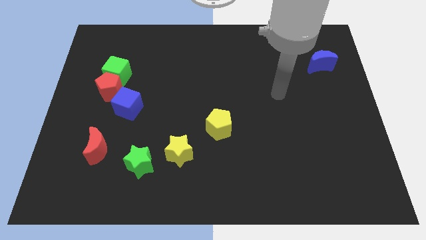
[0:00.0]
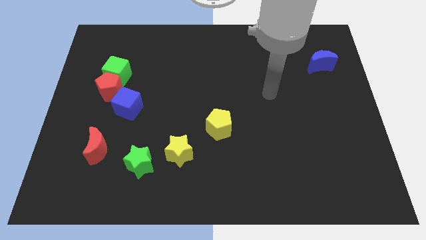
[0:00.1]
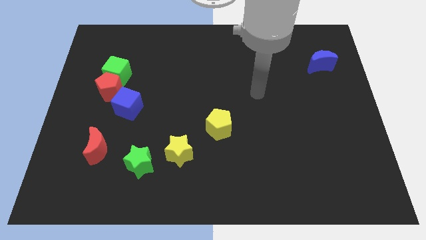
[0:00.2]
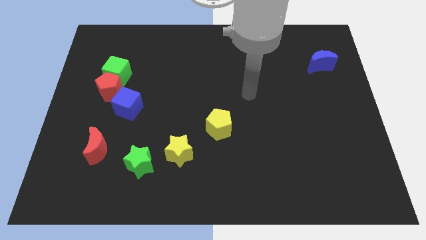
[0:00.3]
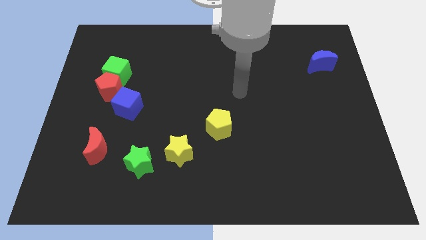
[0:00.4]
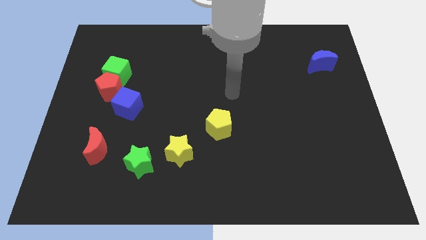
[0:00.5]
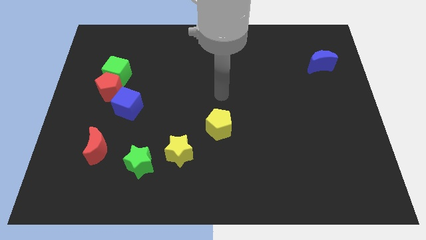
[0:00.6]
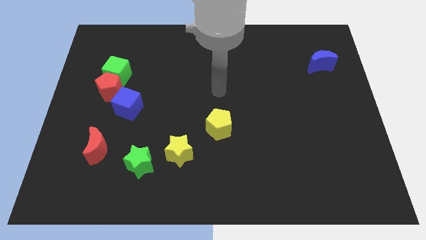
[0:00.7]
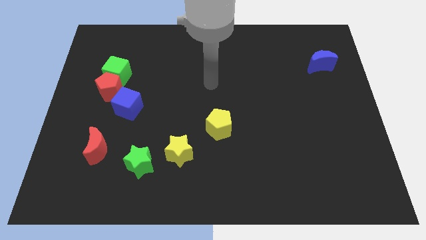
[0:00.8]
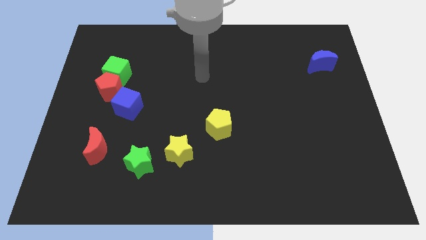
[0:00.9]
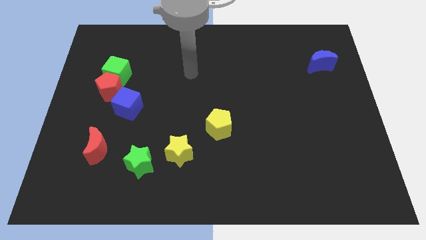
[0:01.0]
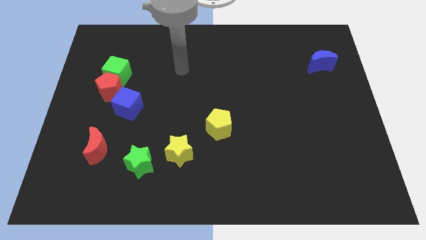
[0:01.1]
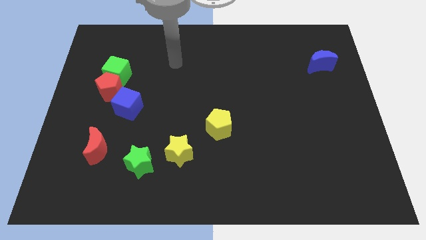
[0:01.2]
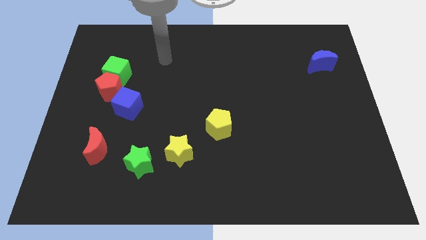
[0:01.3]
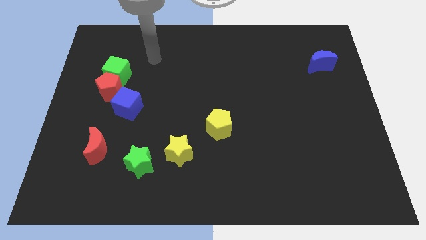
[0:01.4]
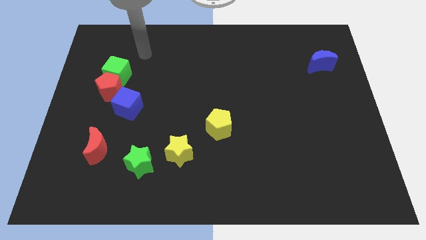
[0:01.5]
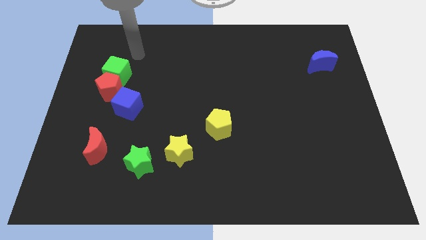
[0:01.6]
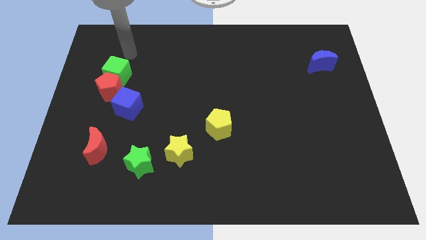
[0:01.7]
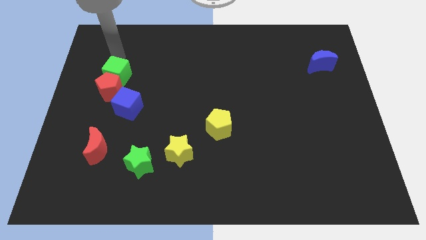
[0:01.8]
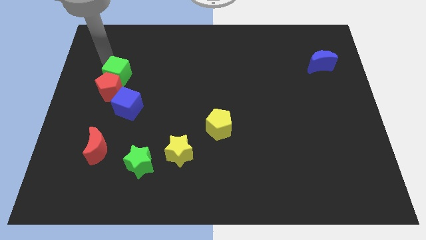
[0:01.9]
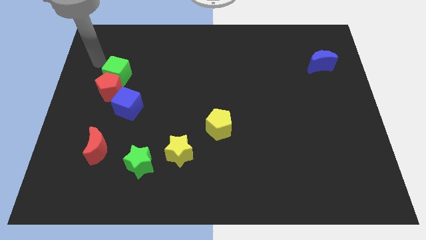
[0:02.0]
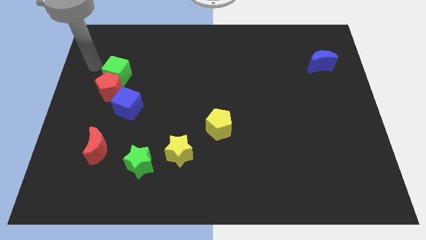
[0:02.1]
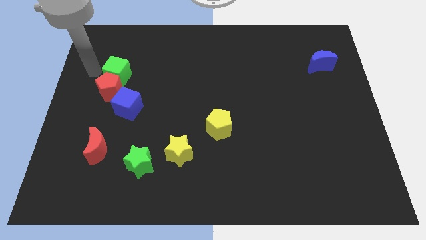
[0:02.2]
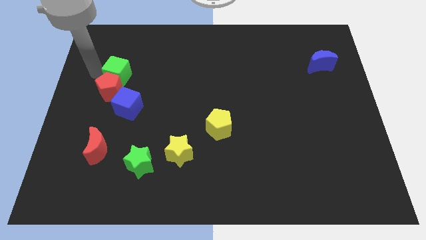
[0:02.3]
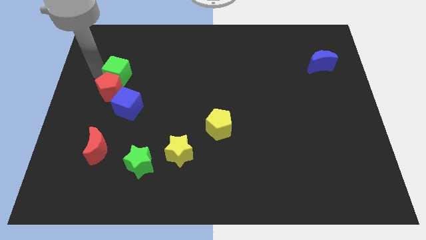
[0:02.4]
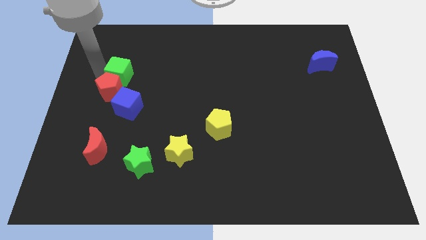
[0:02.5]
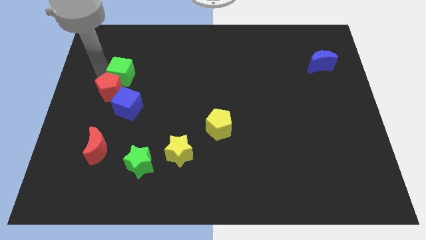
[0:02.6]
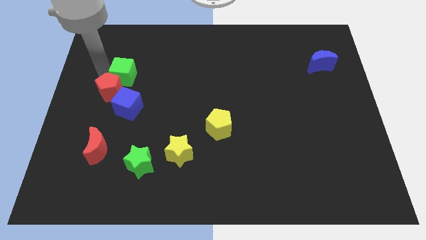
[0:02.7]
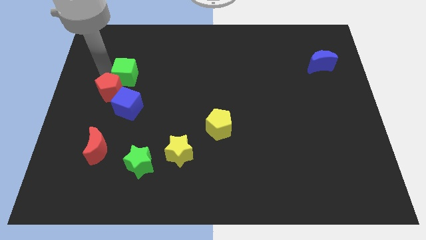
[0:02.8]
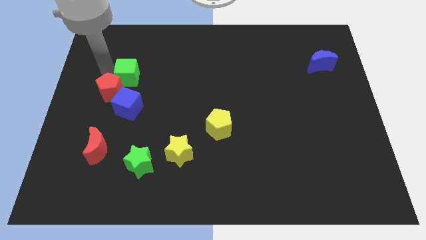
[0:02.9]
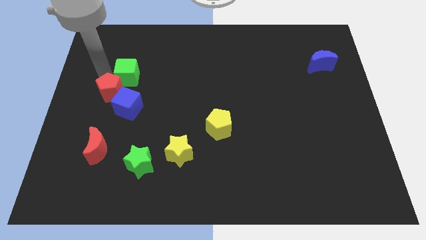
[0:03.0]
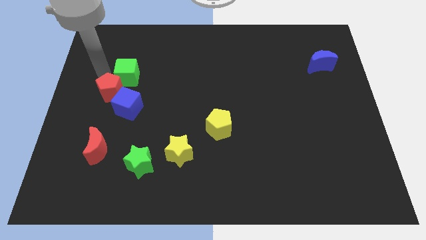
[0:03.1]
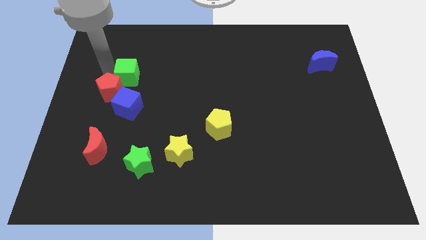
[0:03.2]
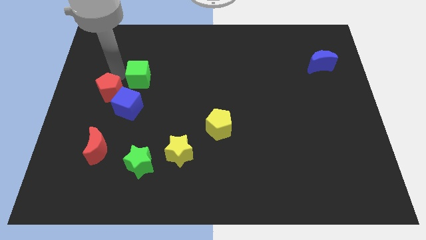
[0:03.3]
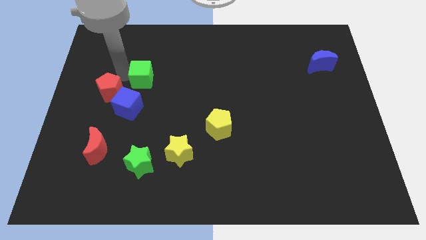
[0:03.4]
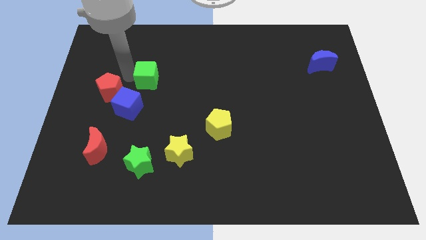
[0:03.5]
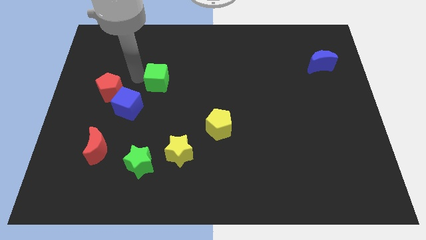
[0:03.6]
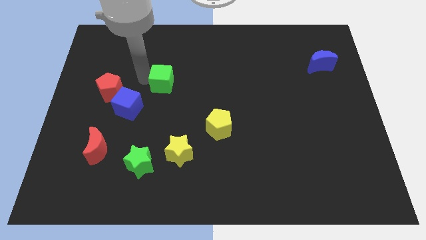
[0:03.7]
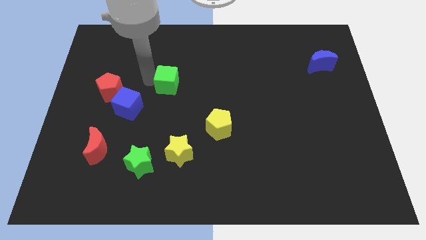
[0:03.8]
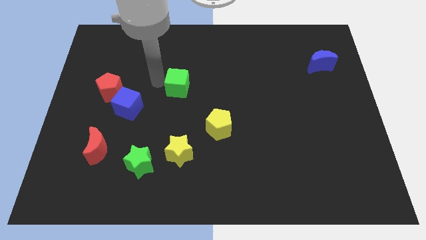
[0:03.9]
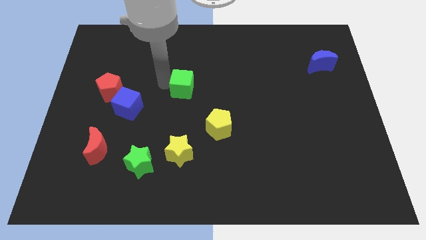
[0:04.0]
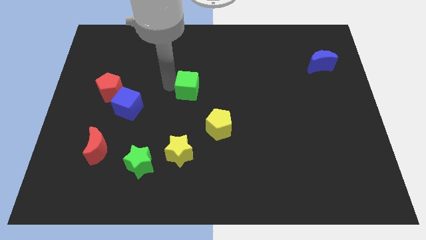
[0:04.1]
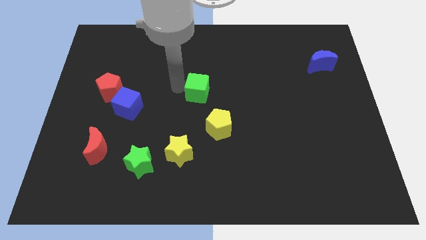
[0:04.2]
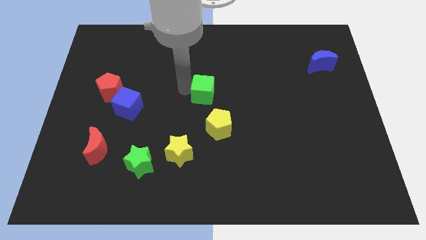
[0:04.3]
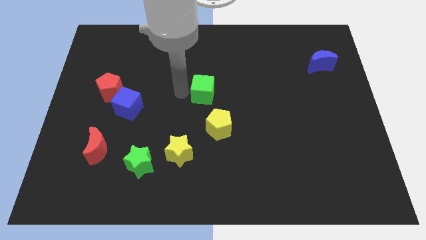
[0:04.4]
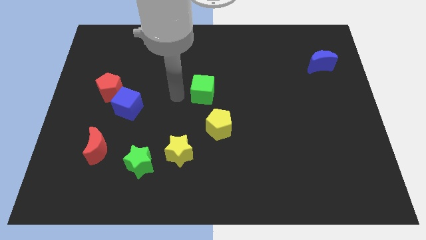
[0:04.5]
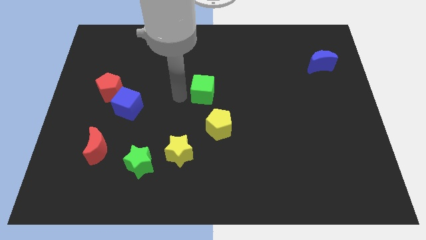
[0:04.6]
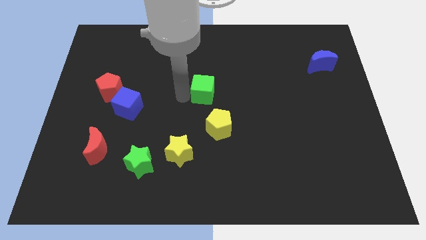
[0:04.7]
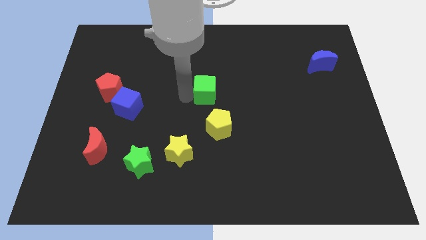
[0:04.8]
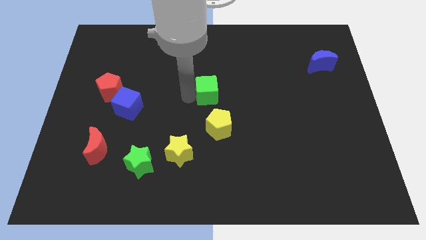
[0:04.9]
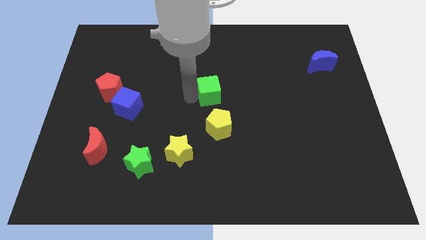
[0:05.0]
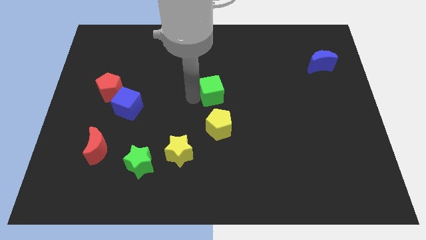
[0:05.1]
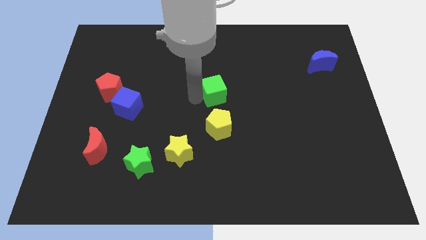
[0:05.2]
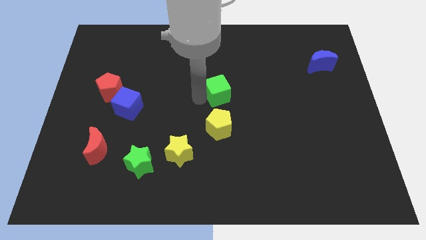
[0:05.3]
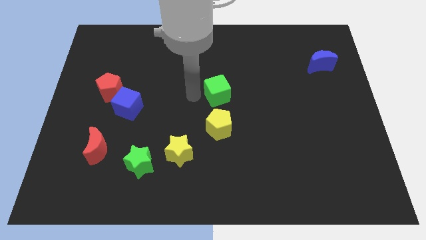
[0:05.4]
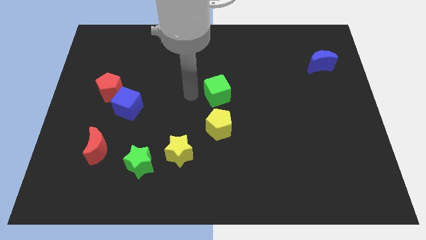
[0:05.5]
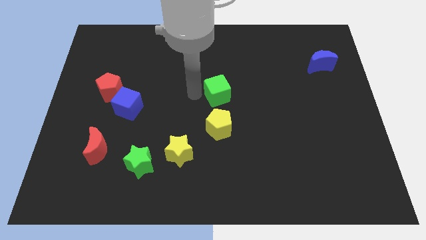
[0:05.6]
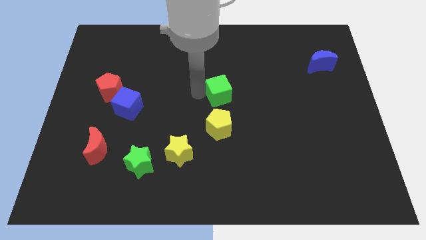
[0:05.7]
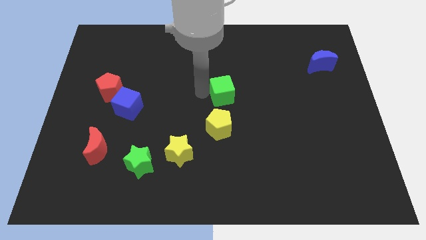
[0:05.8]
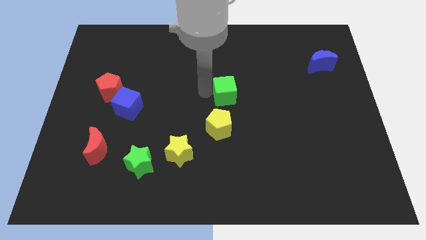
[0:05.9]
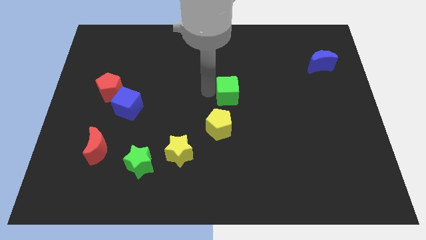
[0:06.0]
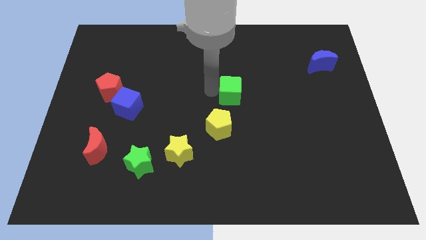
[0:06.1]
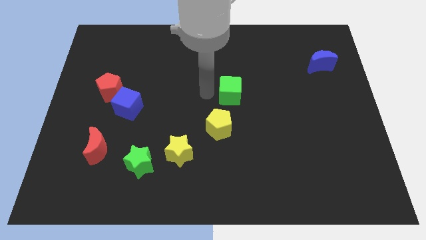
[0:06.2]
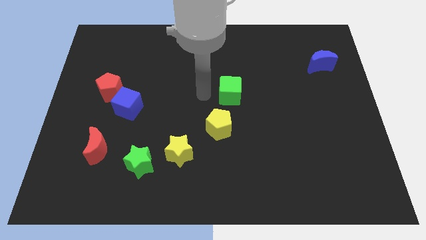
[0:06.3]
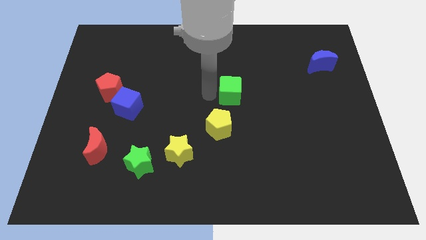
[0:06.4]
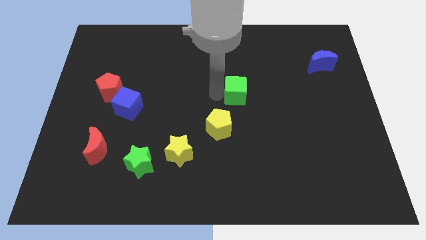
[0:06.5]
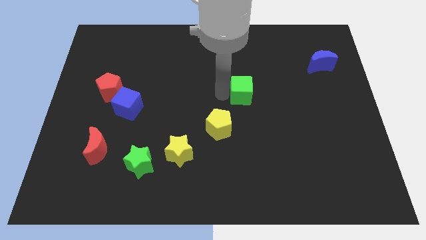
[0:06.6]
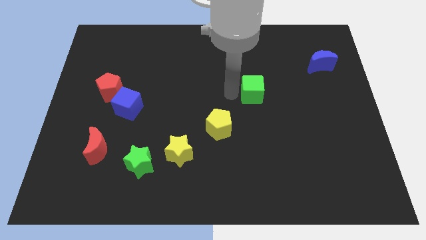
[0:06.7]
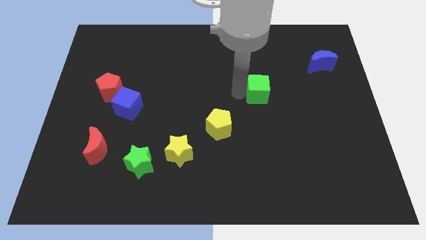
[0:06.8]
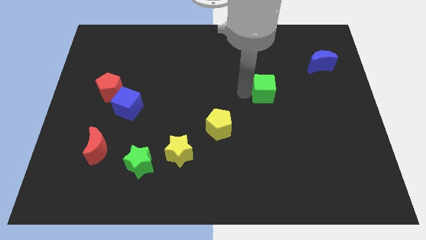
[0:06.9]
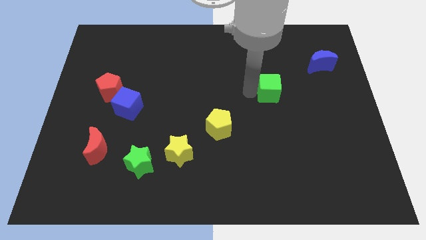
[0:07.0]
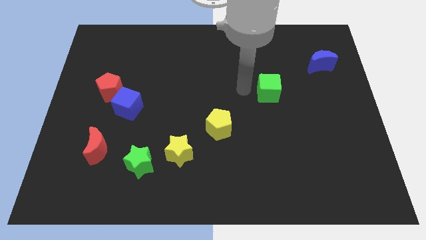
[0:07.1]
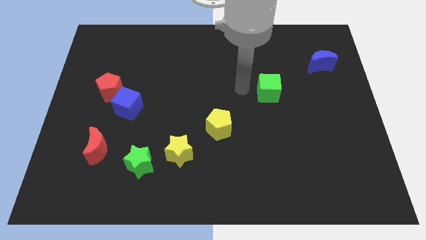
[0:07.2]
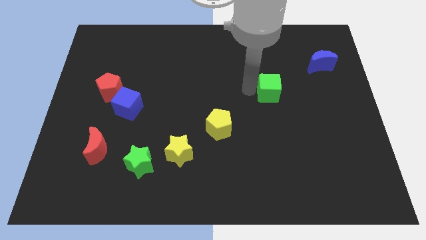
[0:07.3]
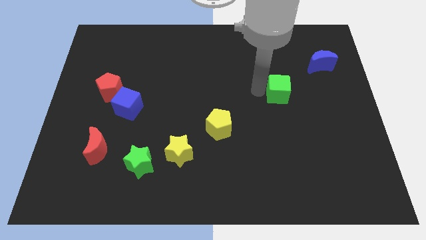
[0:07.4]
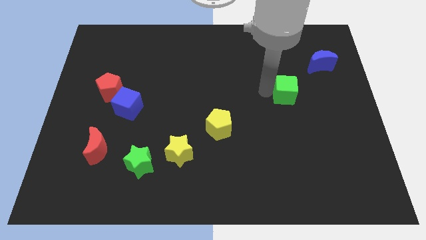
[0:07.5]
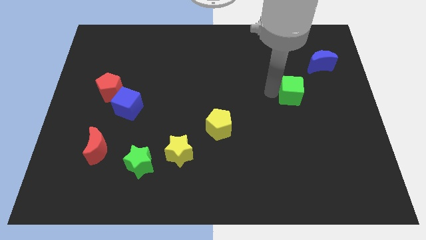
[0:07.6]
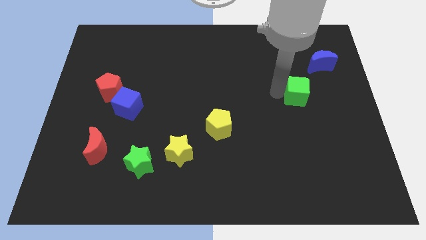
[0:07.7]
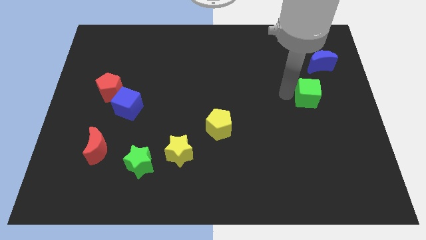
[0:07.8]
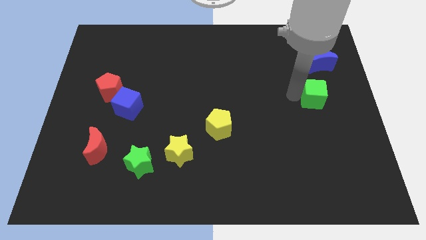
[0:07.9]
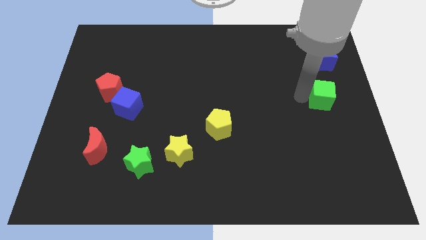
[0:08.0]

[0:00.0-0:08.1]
slide the green cube to the right side
